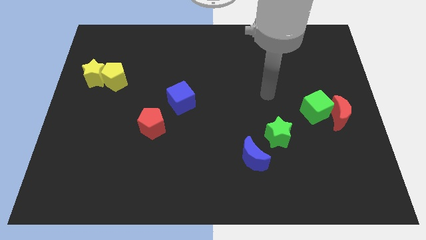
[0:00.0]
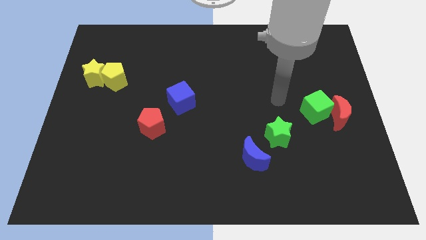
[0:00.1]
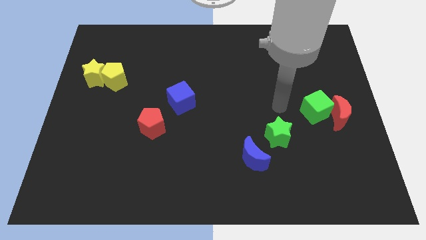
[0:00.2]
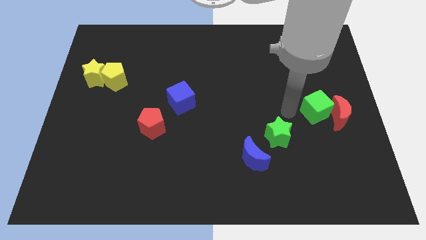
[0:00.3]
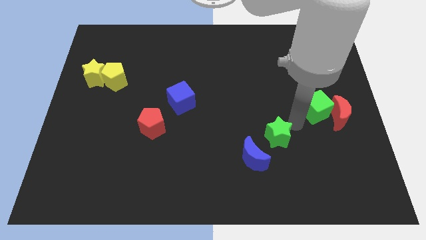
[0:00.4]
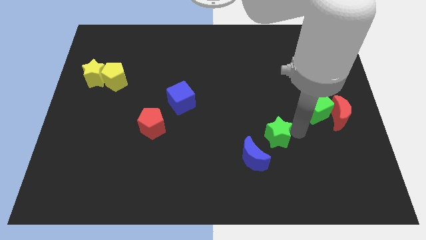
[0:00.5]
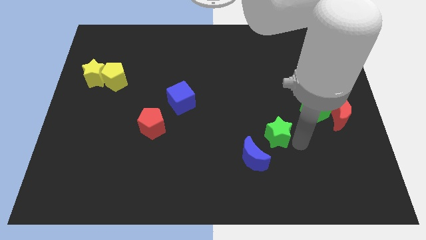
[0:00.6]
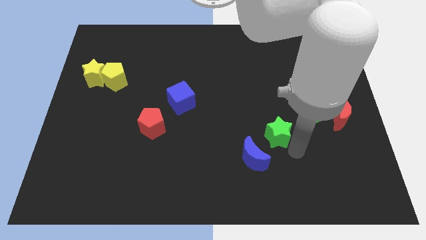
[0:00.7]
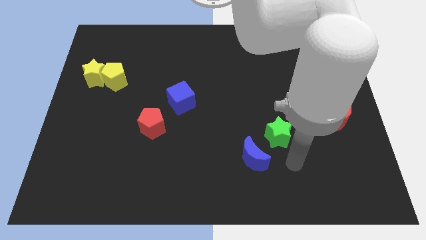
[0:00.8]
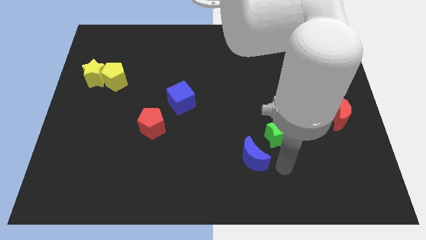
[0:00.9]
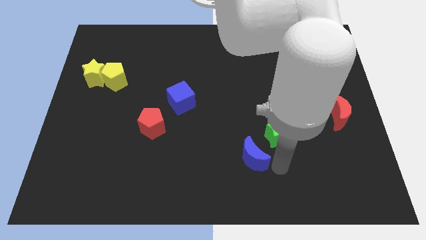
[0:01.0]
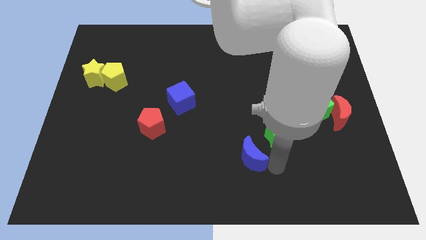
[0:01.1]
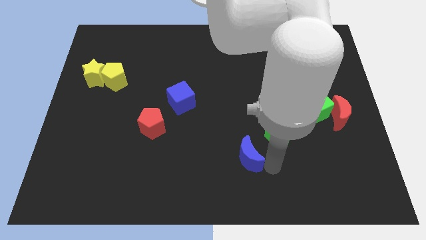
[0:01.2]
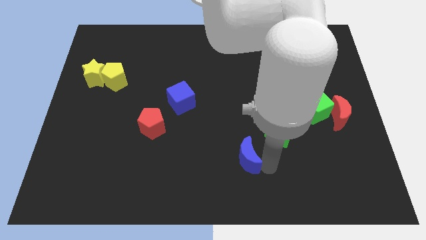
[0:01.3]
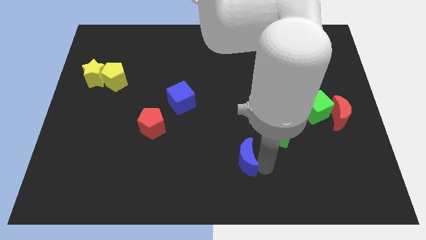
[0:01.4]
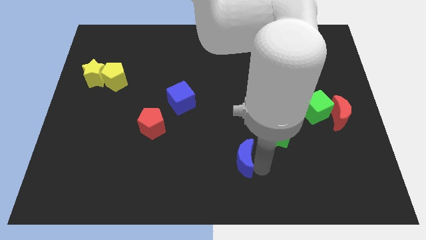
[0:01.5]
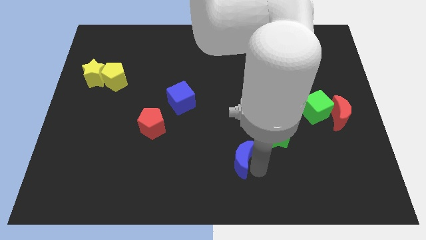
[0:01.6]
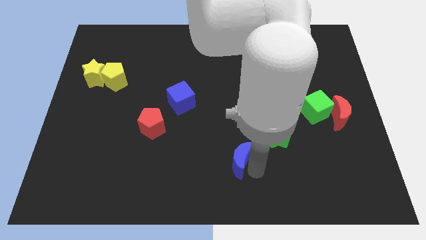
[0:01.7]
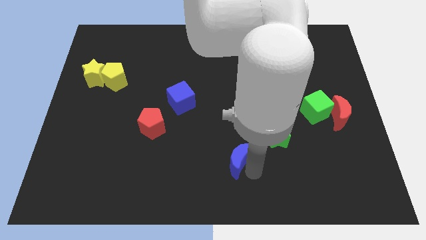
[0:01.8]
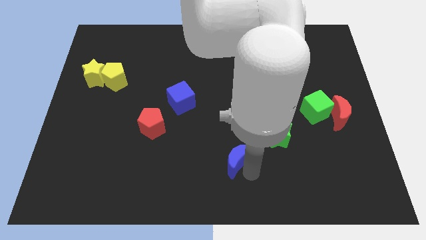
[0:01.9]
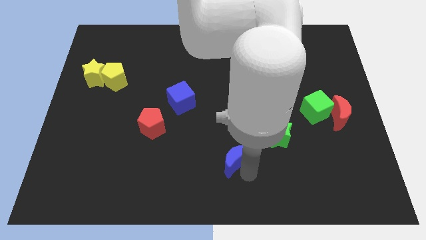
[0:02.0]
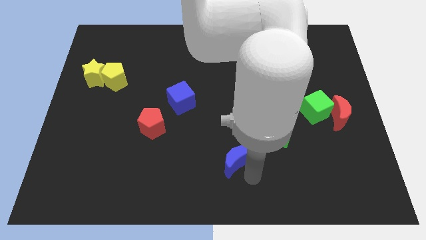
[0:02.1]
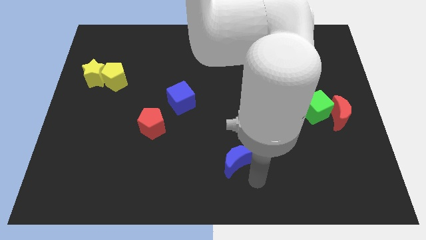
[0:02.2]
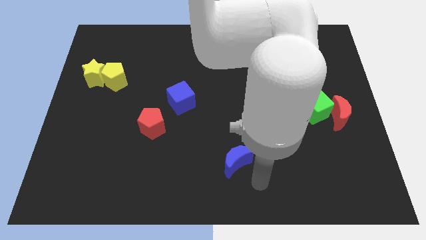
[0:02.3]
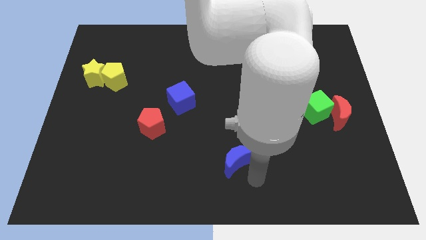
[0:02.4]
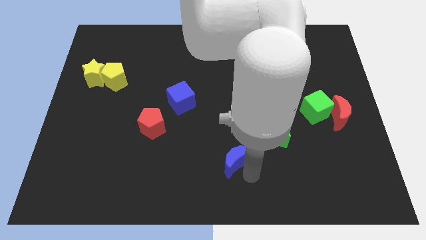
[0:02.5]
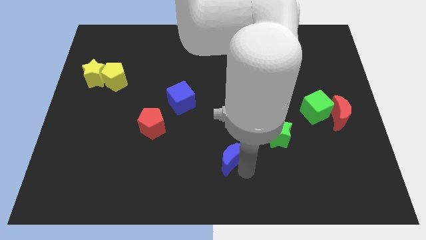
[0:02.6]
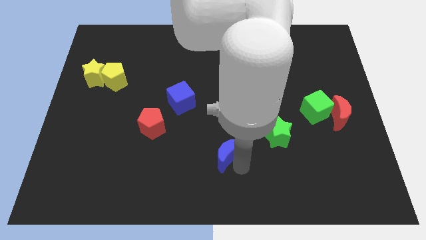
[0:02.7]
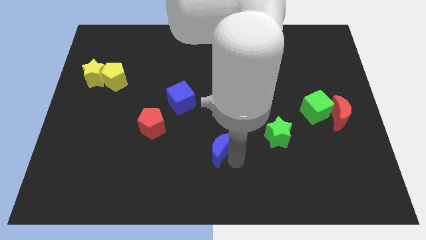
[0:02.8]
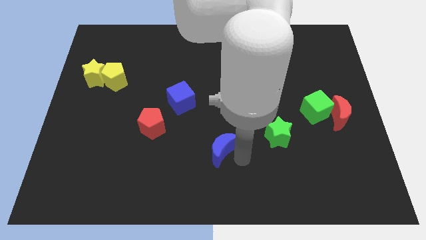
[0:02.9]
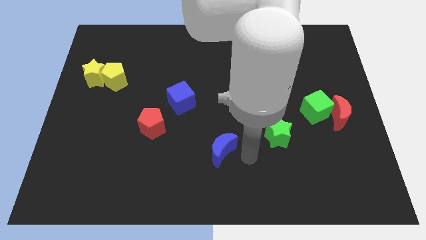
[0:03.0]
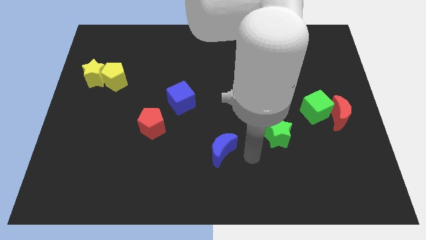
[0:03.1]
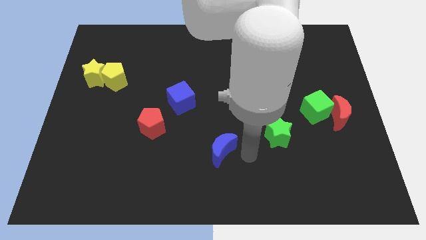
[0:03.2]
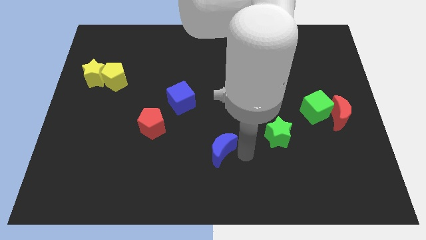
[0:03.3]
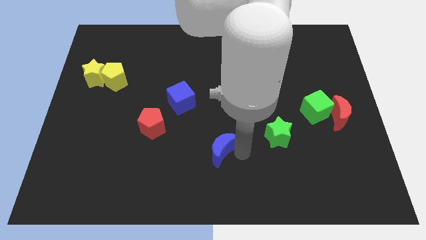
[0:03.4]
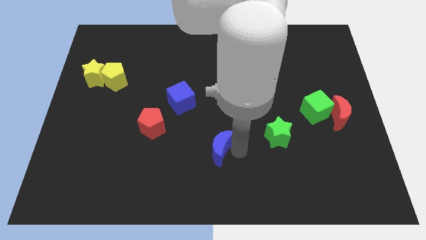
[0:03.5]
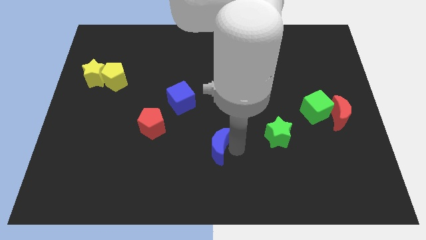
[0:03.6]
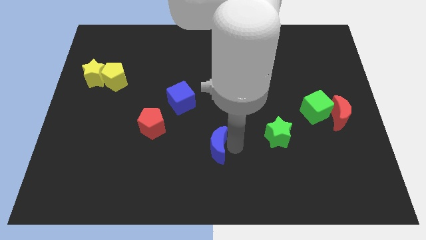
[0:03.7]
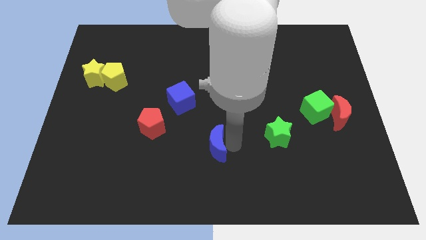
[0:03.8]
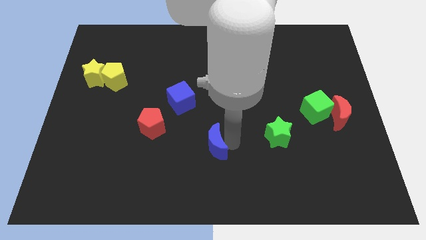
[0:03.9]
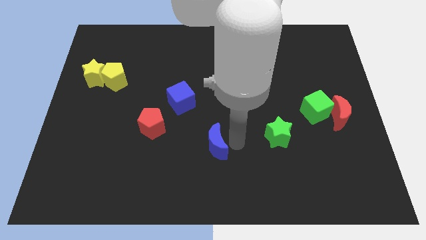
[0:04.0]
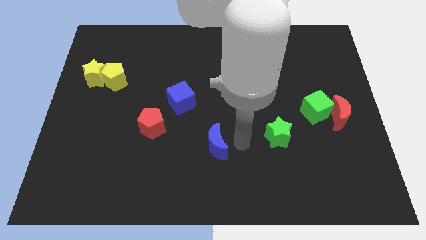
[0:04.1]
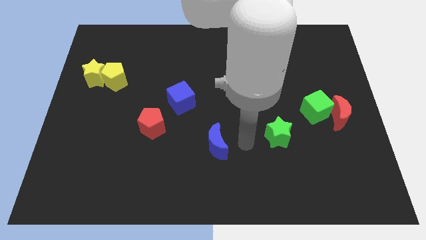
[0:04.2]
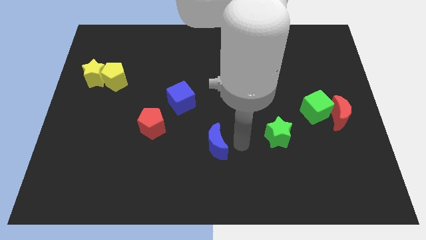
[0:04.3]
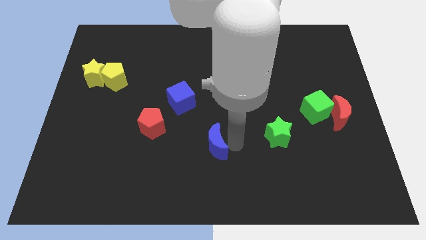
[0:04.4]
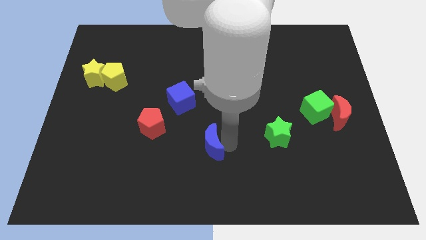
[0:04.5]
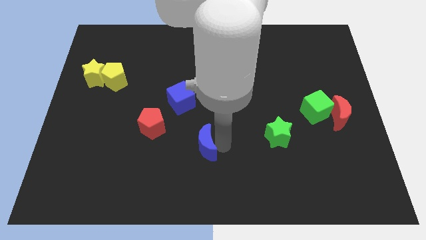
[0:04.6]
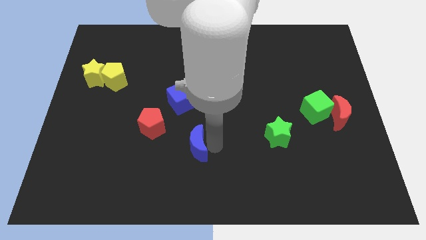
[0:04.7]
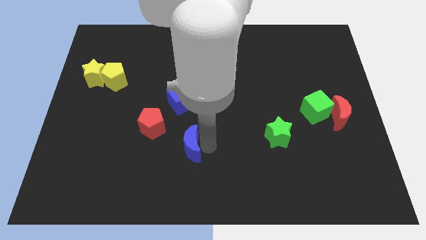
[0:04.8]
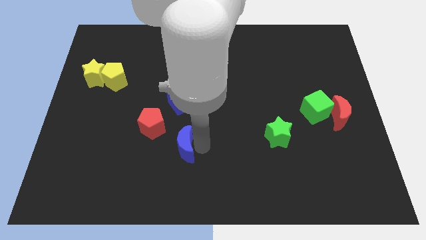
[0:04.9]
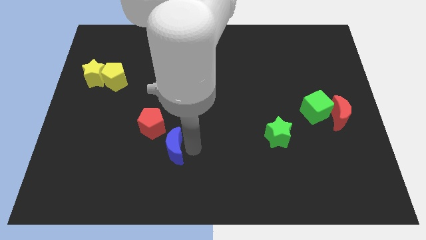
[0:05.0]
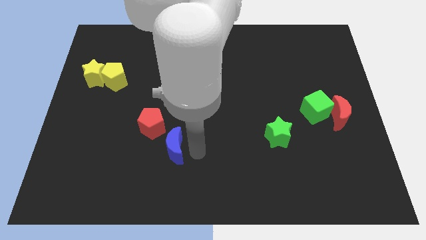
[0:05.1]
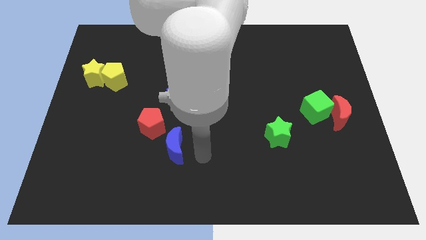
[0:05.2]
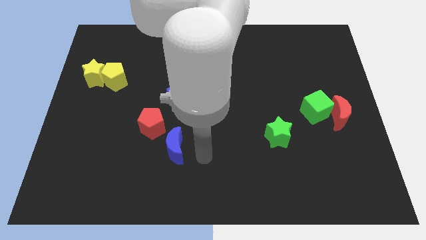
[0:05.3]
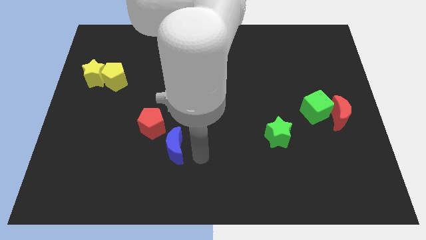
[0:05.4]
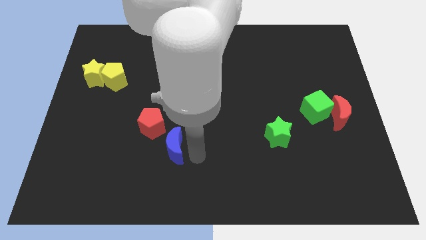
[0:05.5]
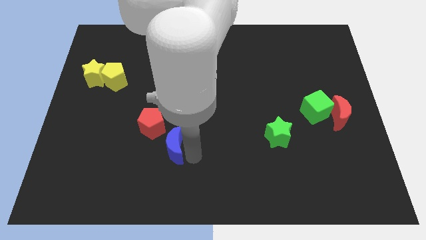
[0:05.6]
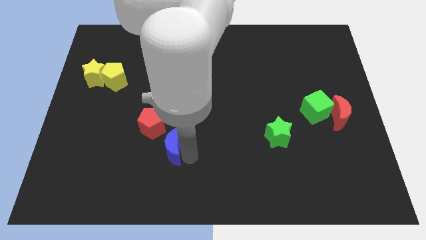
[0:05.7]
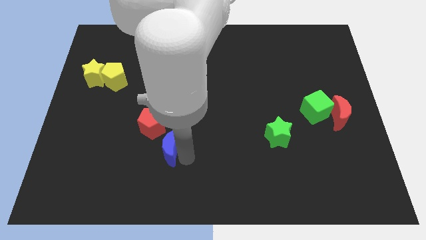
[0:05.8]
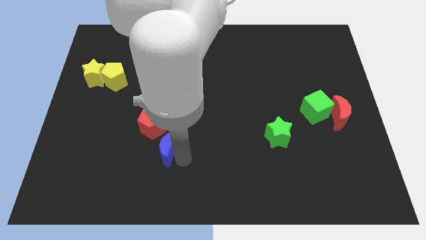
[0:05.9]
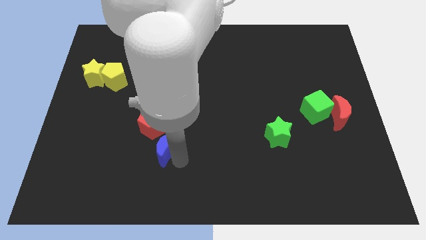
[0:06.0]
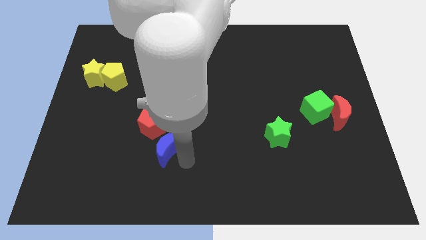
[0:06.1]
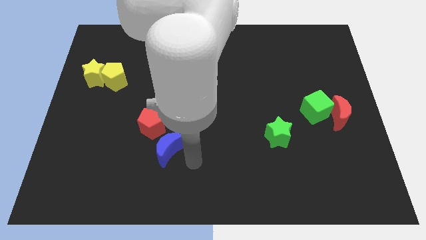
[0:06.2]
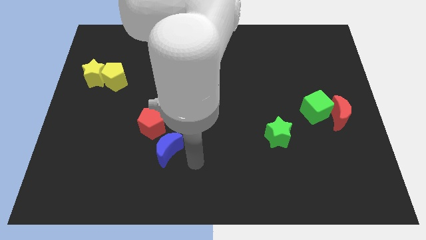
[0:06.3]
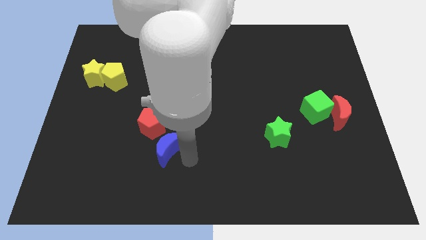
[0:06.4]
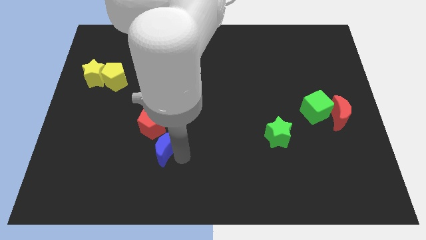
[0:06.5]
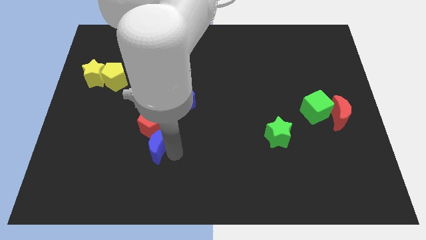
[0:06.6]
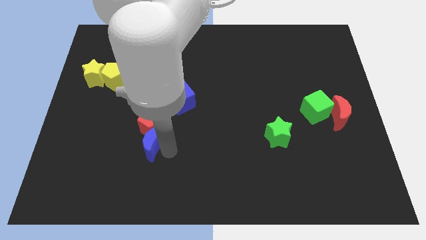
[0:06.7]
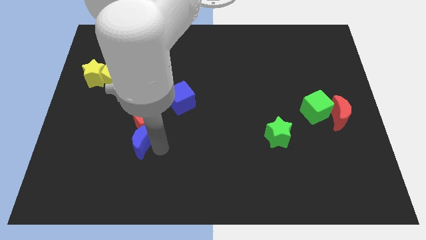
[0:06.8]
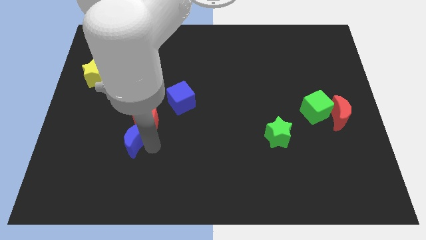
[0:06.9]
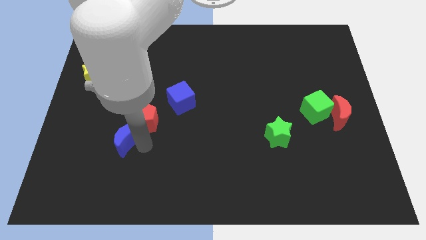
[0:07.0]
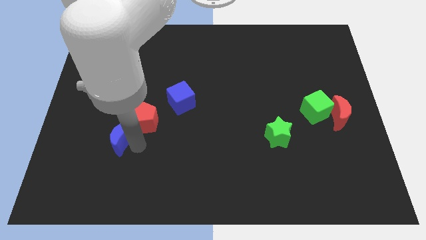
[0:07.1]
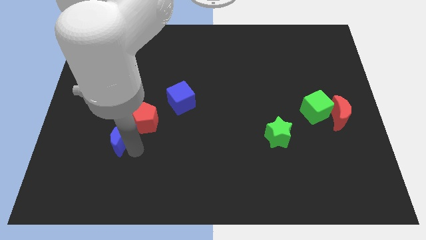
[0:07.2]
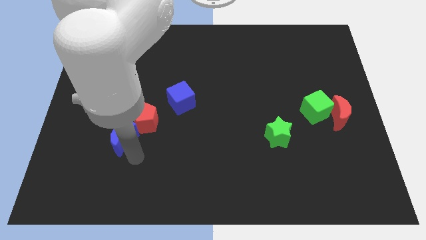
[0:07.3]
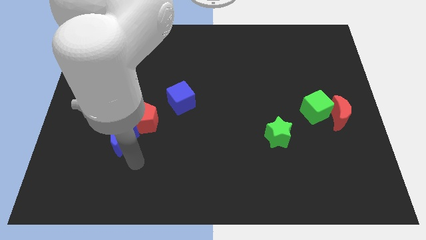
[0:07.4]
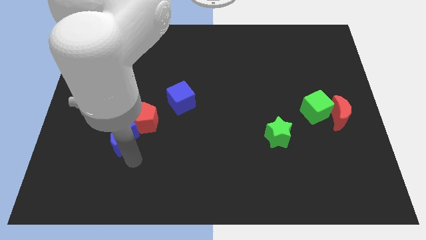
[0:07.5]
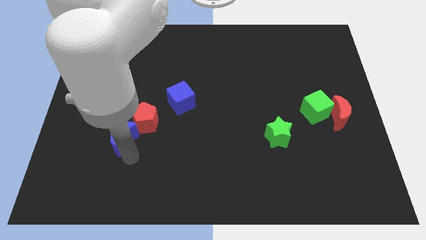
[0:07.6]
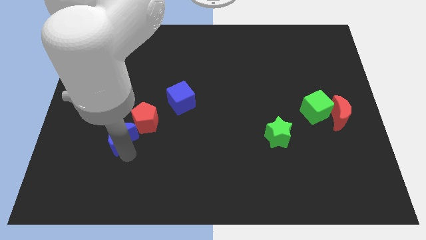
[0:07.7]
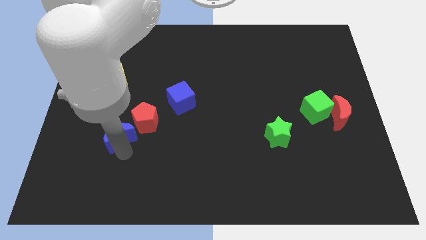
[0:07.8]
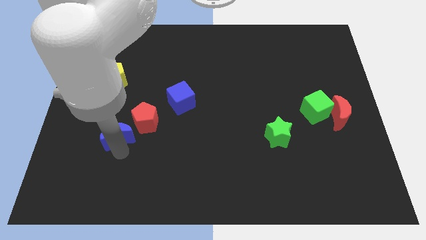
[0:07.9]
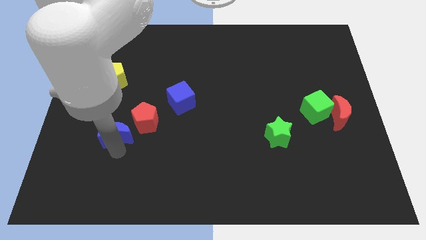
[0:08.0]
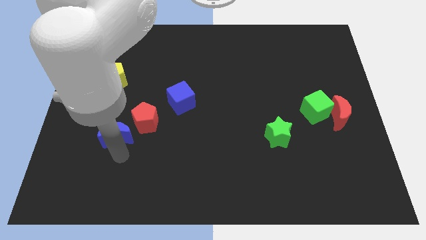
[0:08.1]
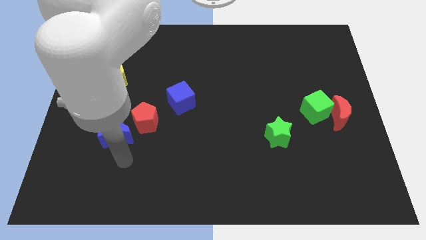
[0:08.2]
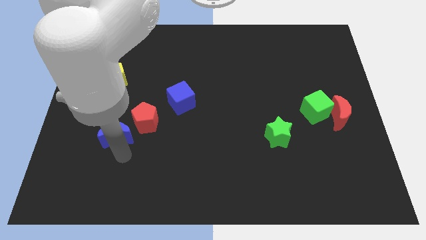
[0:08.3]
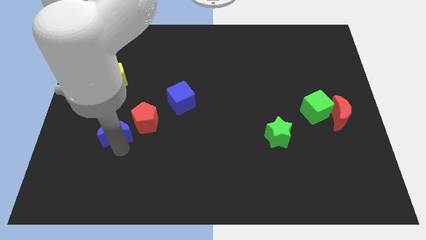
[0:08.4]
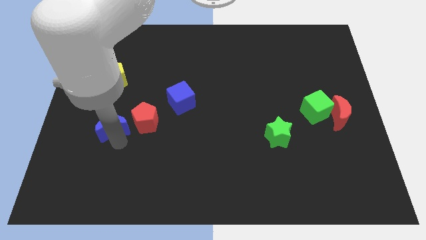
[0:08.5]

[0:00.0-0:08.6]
put the blue moon to the bottom of the yellow pentagon
